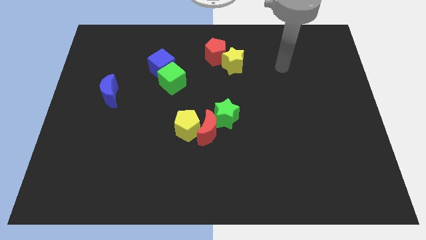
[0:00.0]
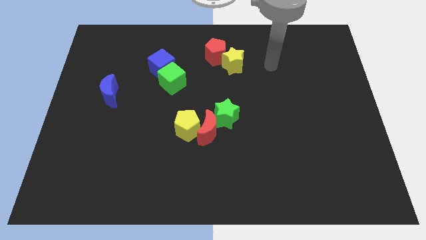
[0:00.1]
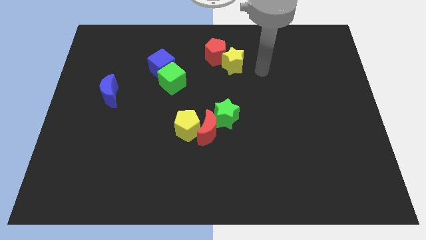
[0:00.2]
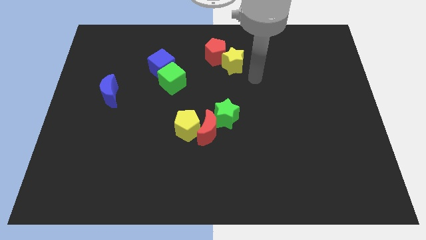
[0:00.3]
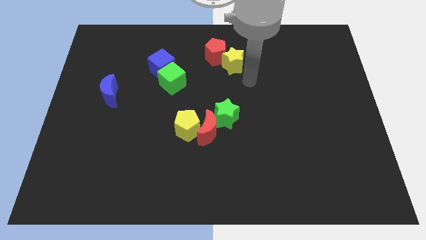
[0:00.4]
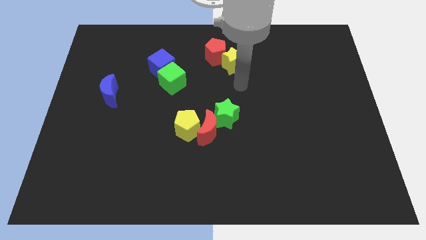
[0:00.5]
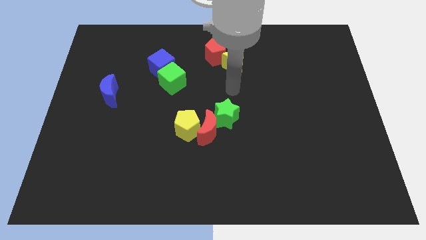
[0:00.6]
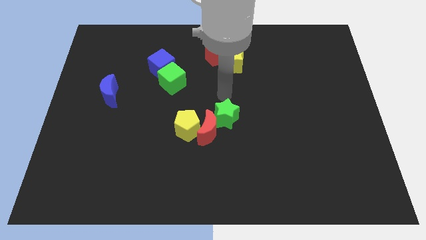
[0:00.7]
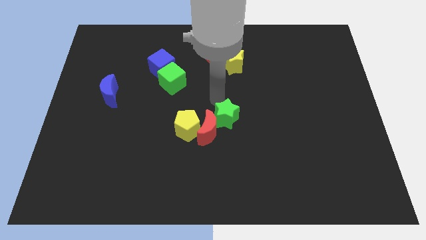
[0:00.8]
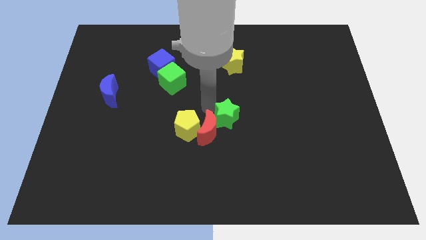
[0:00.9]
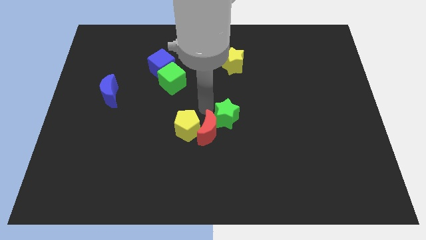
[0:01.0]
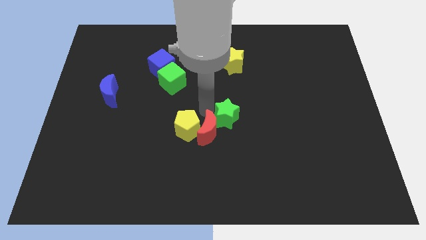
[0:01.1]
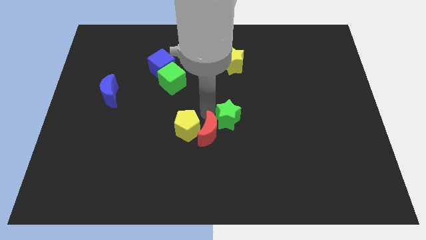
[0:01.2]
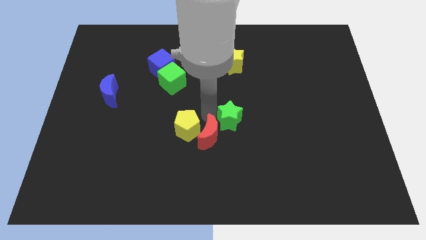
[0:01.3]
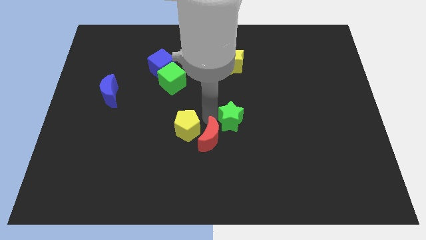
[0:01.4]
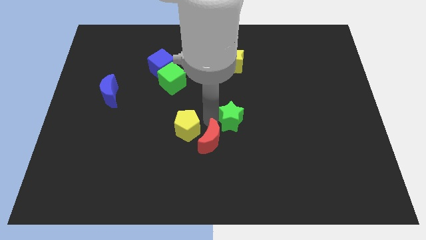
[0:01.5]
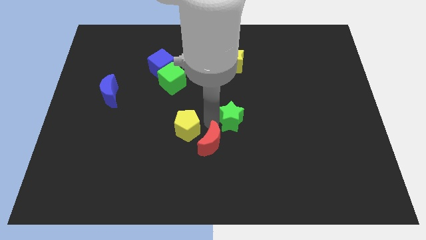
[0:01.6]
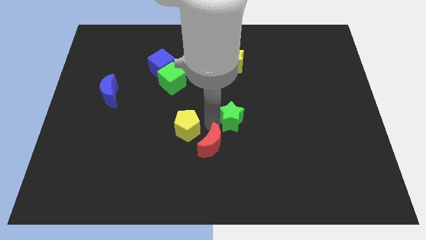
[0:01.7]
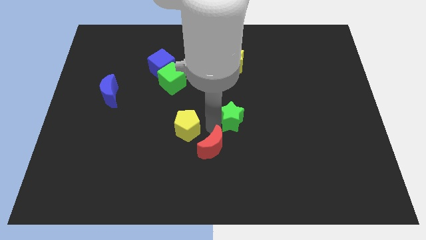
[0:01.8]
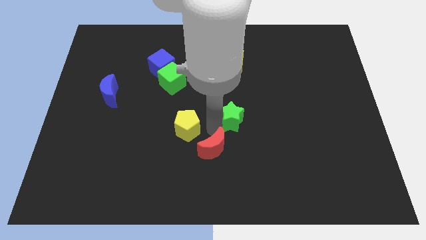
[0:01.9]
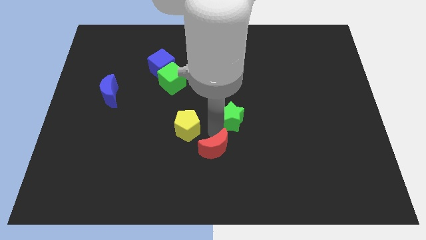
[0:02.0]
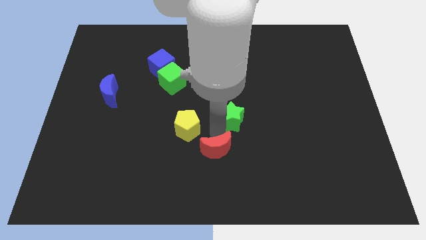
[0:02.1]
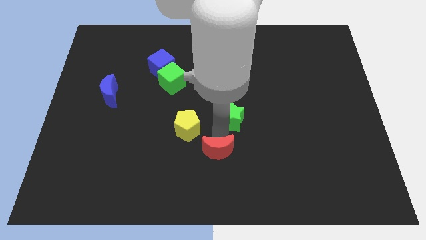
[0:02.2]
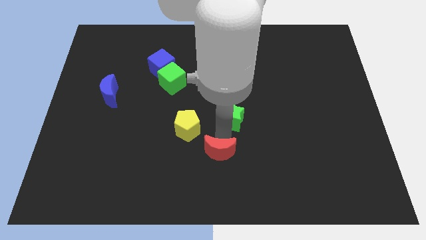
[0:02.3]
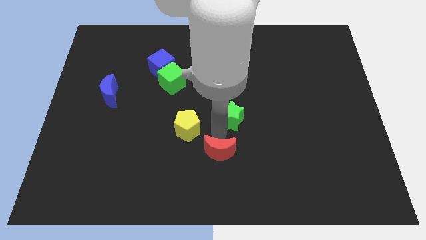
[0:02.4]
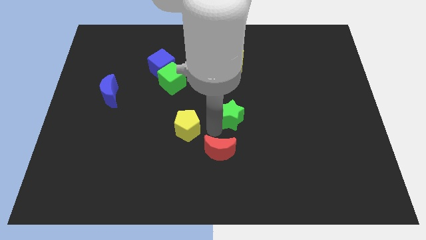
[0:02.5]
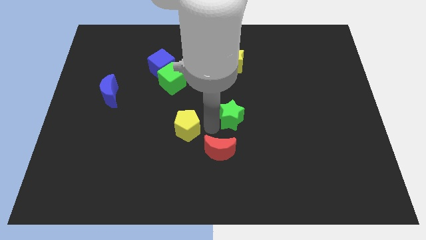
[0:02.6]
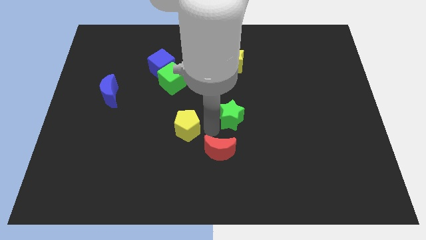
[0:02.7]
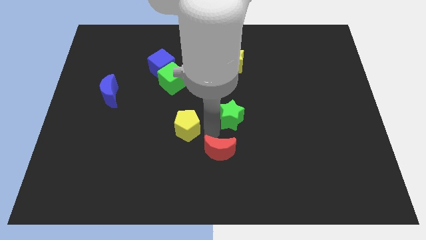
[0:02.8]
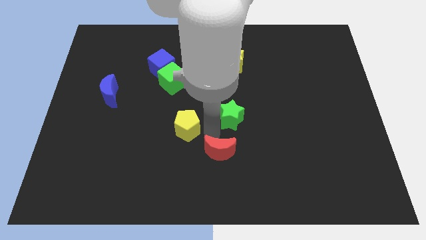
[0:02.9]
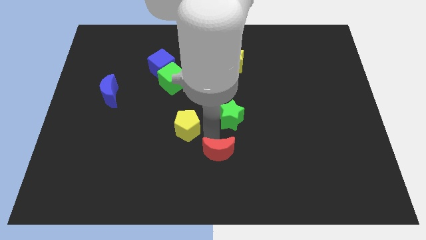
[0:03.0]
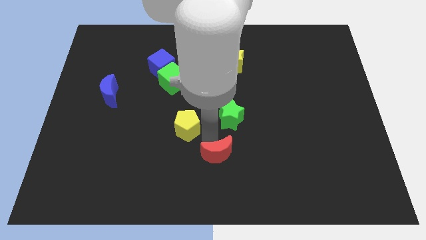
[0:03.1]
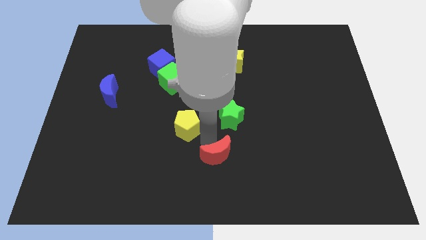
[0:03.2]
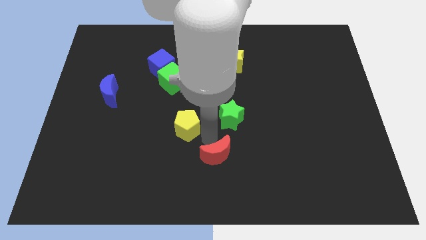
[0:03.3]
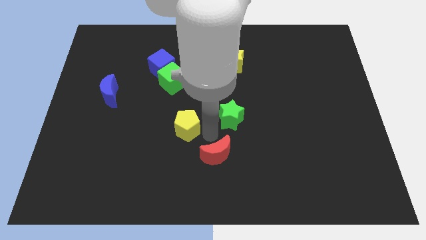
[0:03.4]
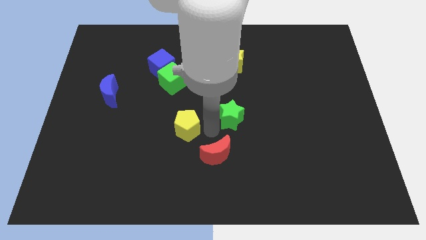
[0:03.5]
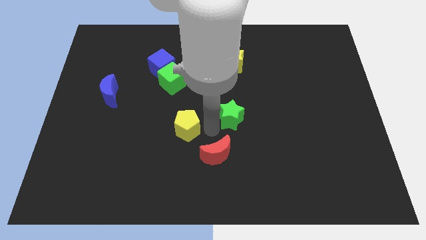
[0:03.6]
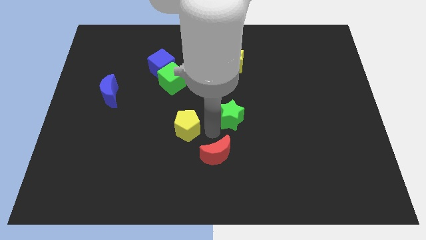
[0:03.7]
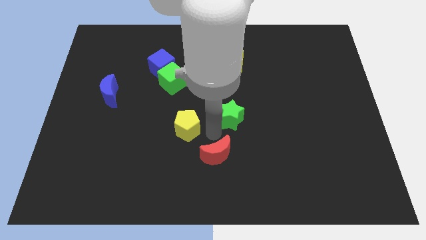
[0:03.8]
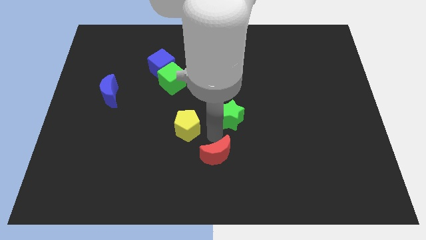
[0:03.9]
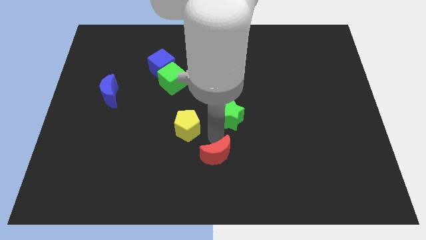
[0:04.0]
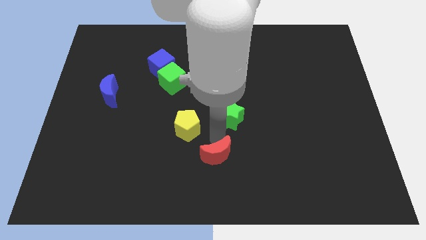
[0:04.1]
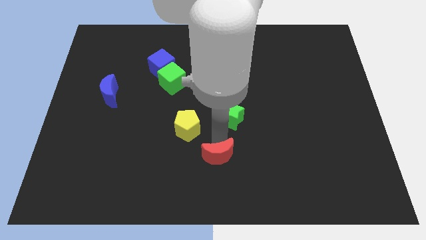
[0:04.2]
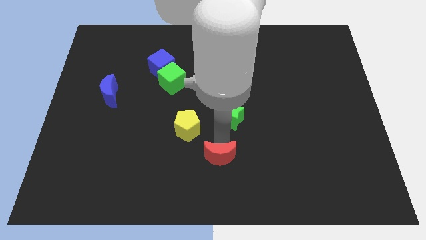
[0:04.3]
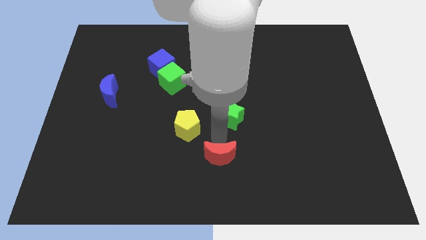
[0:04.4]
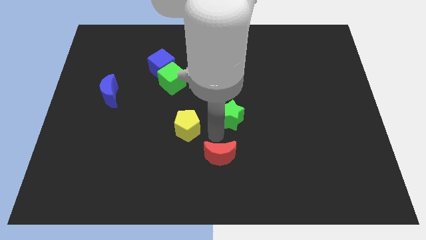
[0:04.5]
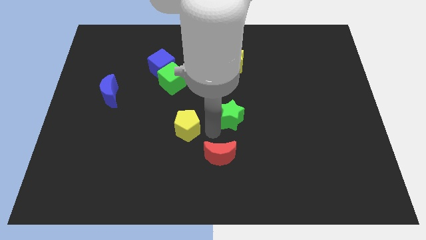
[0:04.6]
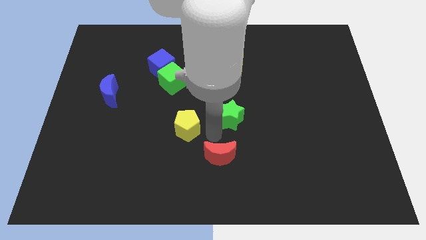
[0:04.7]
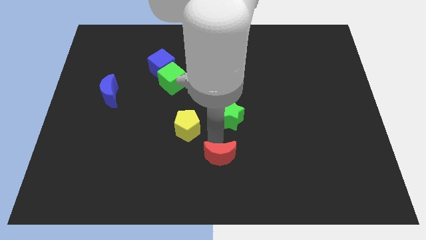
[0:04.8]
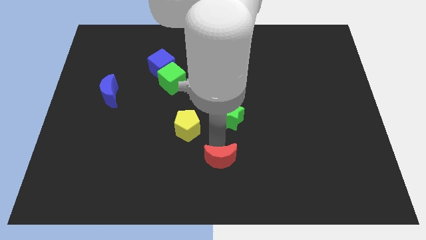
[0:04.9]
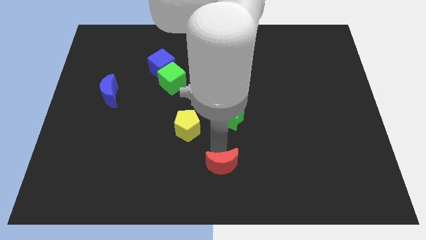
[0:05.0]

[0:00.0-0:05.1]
separate the red moon from the yellow pentagon and green star

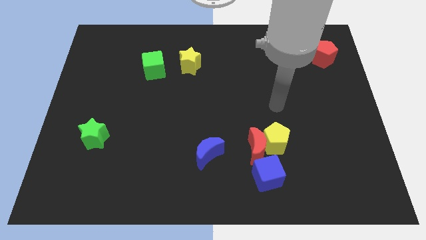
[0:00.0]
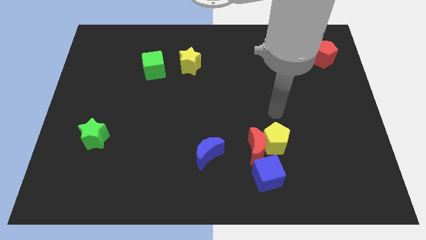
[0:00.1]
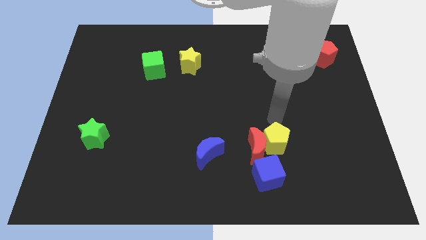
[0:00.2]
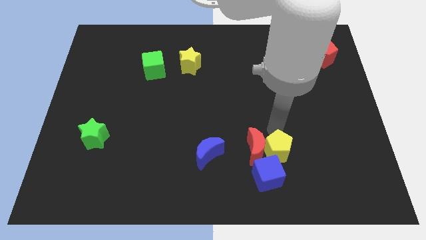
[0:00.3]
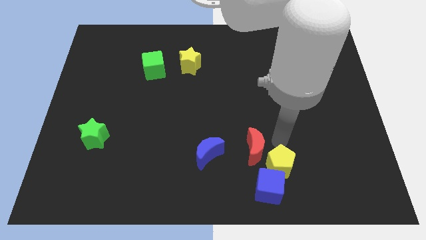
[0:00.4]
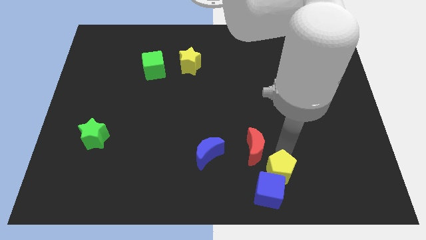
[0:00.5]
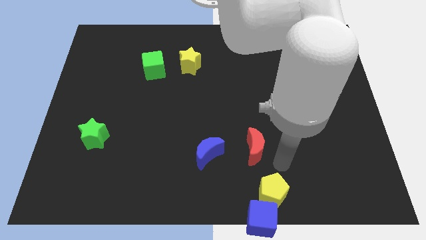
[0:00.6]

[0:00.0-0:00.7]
separate the red moon from the yellow pentagon and blue cube

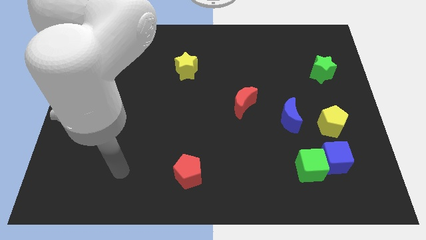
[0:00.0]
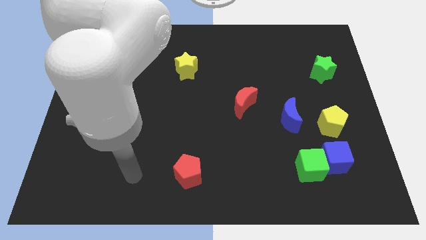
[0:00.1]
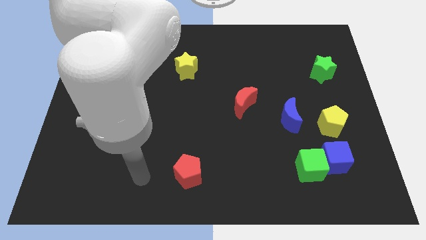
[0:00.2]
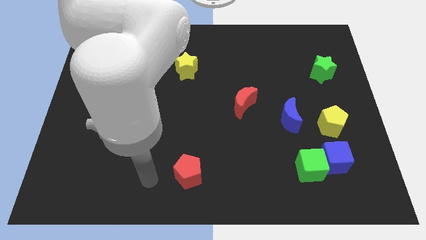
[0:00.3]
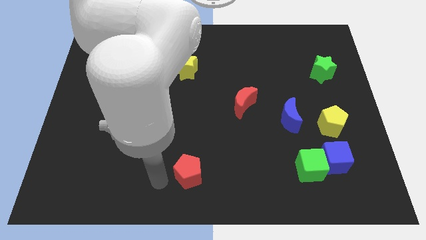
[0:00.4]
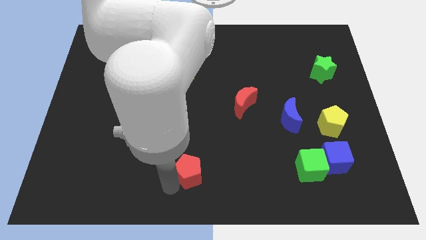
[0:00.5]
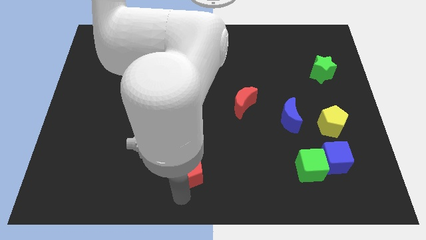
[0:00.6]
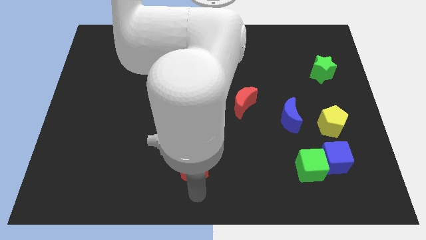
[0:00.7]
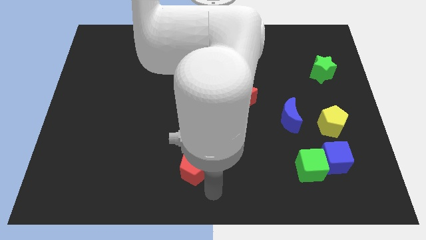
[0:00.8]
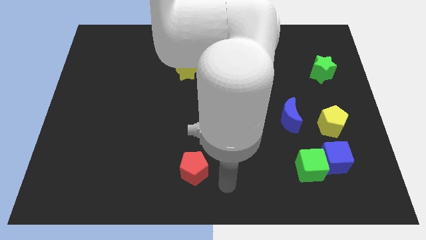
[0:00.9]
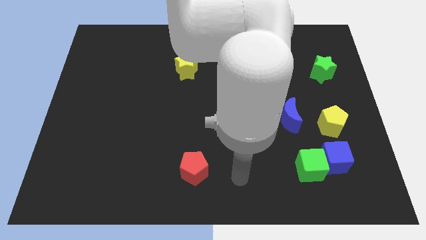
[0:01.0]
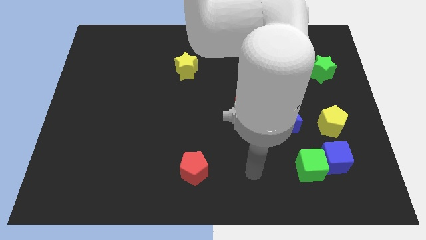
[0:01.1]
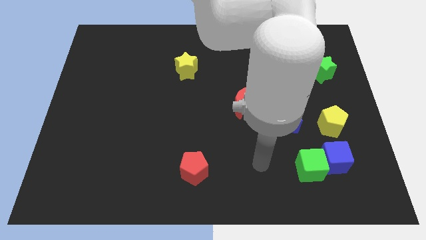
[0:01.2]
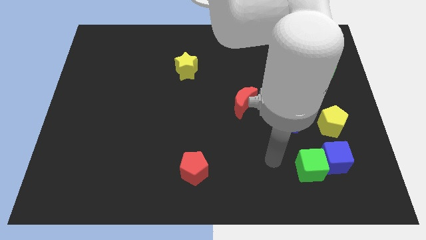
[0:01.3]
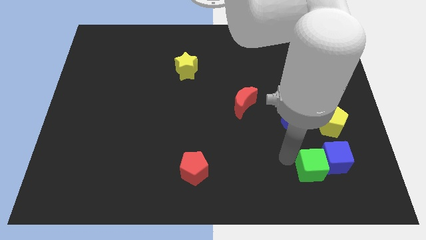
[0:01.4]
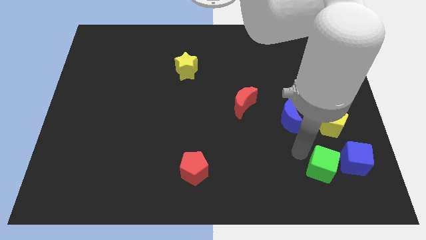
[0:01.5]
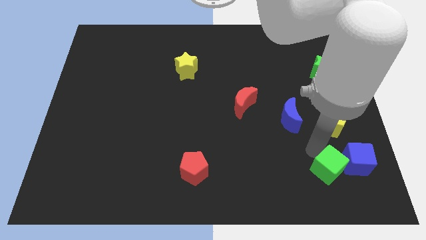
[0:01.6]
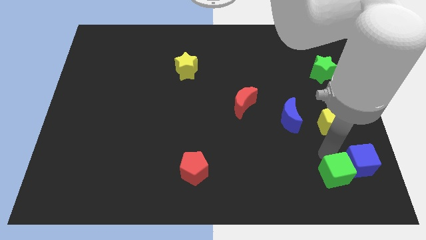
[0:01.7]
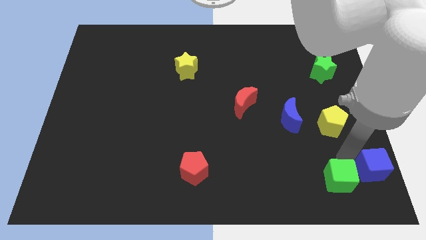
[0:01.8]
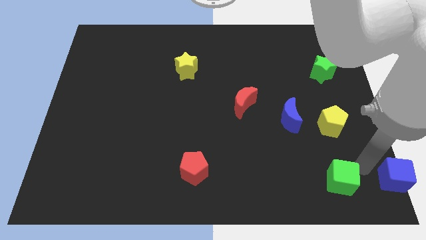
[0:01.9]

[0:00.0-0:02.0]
pull the green cube apart from the blue cube

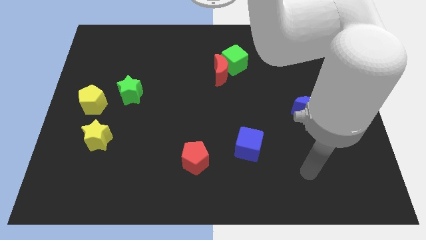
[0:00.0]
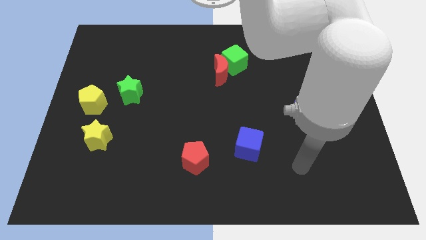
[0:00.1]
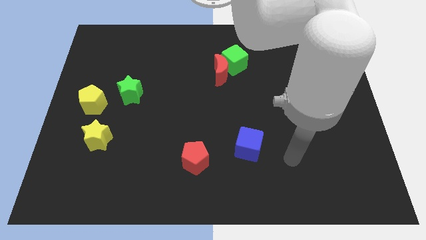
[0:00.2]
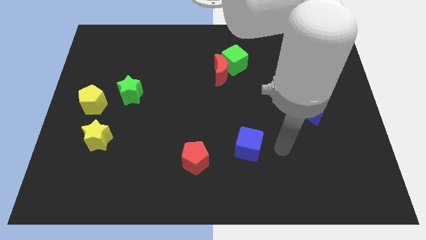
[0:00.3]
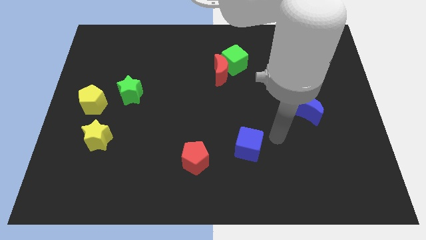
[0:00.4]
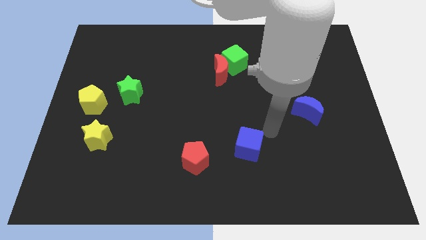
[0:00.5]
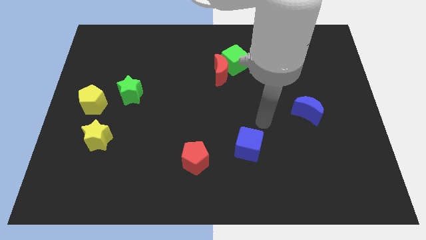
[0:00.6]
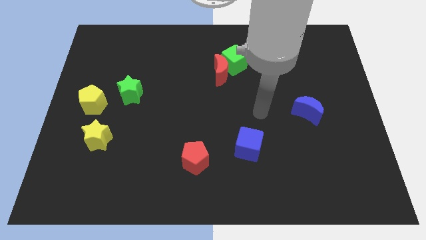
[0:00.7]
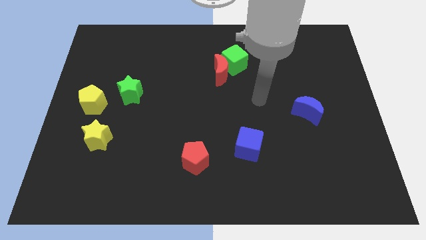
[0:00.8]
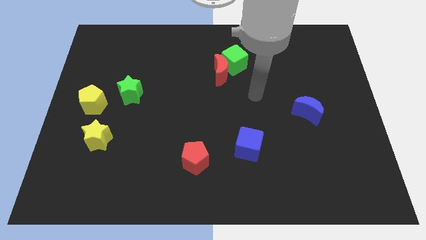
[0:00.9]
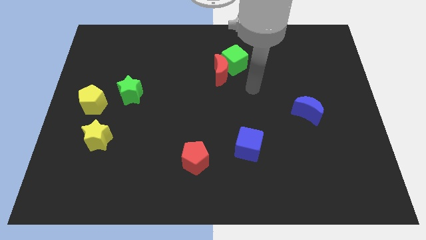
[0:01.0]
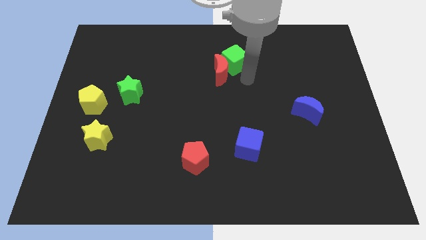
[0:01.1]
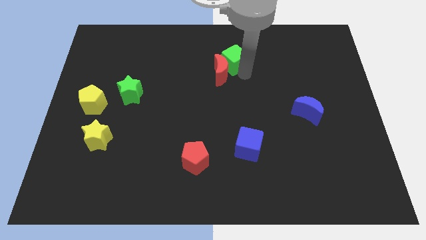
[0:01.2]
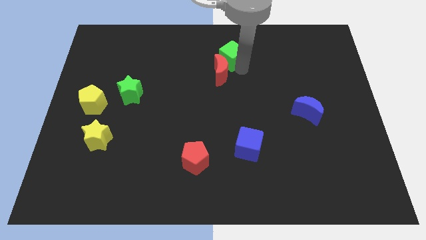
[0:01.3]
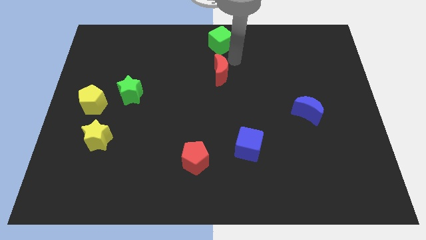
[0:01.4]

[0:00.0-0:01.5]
pull the red moon apart from the green cube

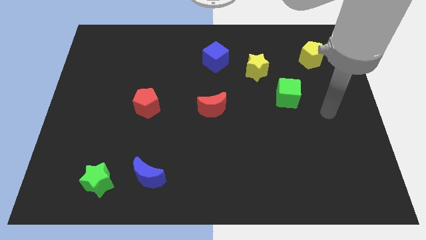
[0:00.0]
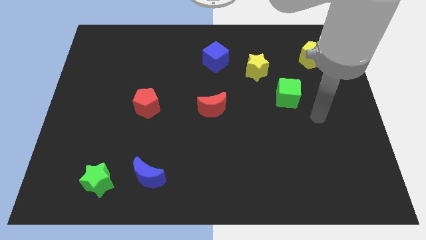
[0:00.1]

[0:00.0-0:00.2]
separate the blue moon from the green star
